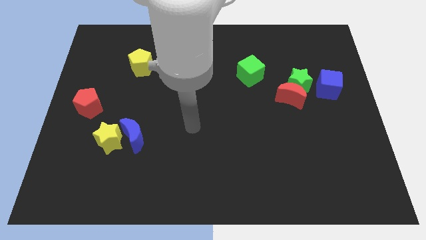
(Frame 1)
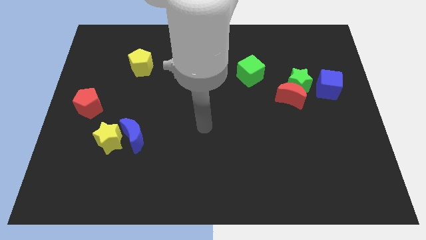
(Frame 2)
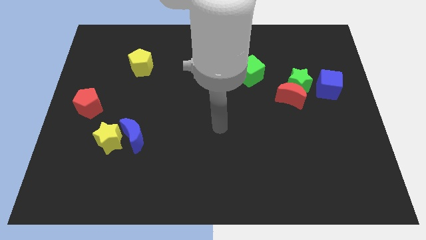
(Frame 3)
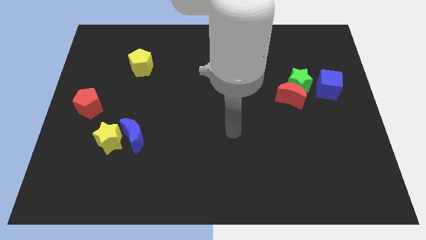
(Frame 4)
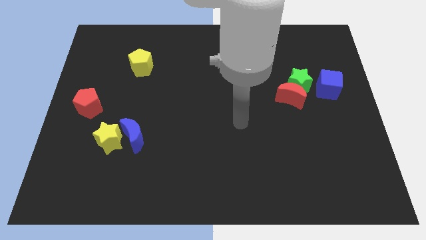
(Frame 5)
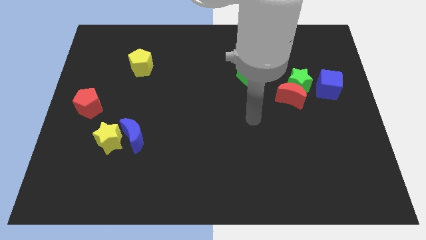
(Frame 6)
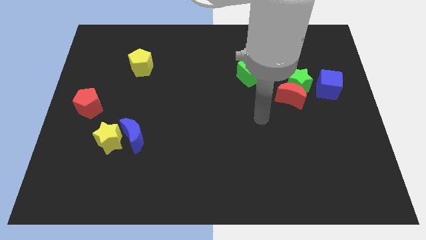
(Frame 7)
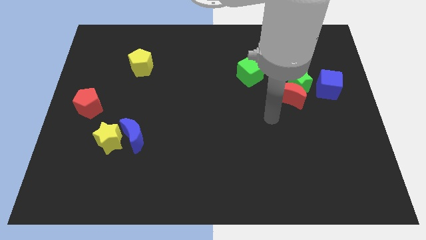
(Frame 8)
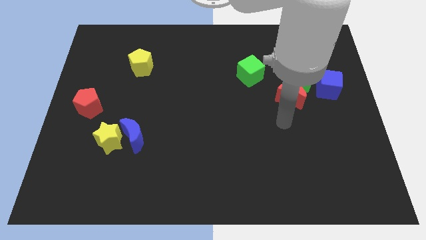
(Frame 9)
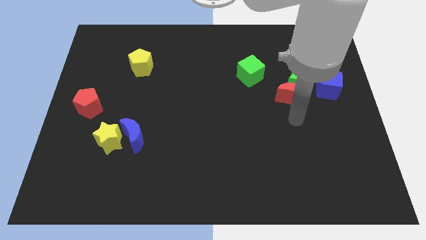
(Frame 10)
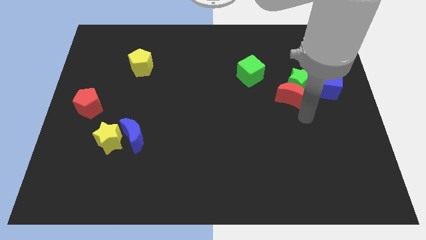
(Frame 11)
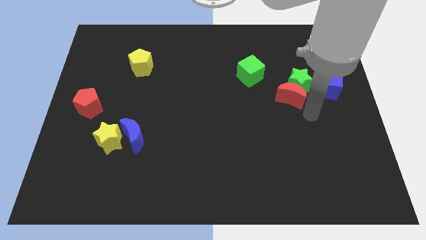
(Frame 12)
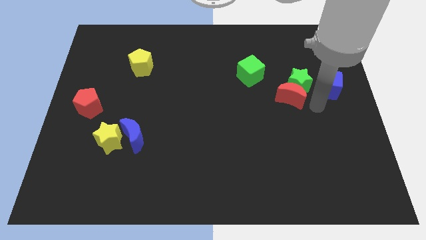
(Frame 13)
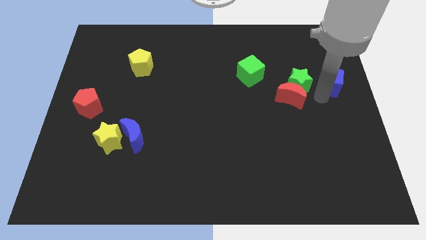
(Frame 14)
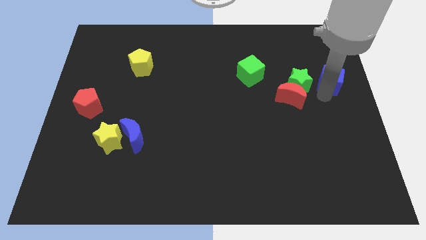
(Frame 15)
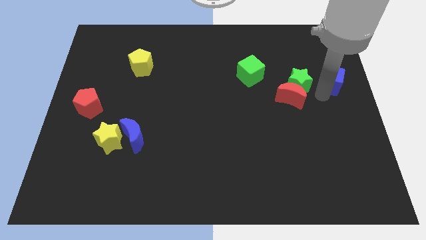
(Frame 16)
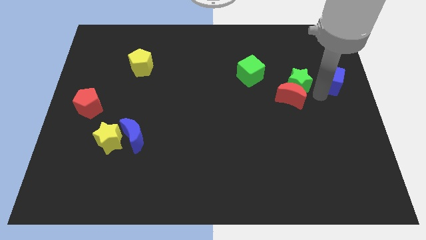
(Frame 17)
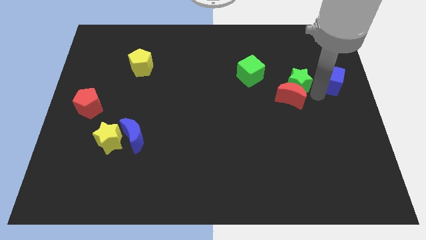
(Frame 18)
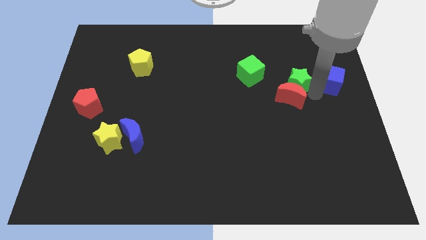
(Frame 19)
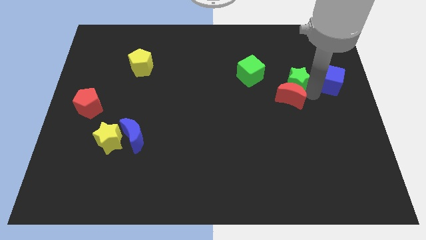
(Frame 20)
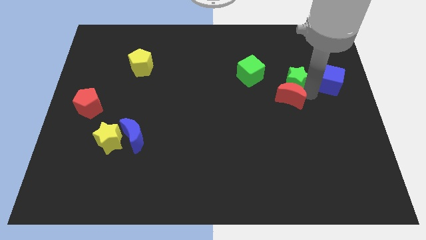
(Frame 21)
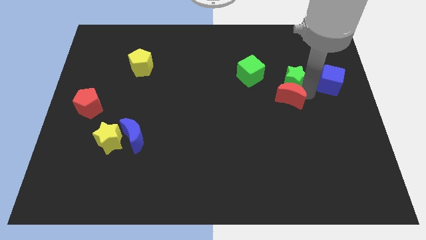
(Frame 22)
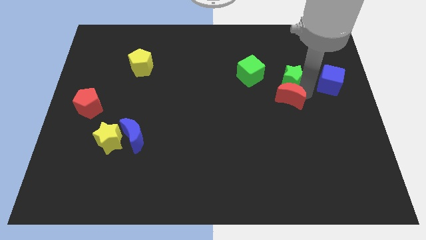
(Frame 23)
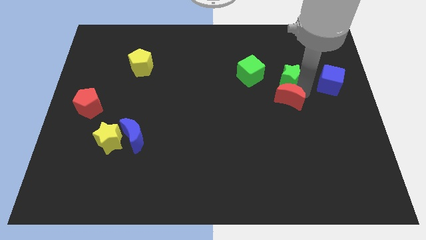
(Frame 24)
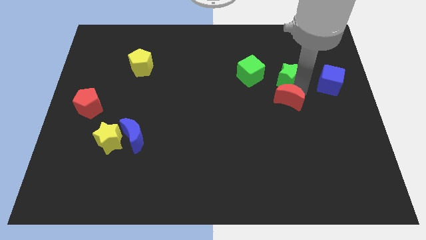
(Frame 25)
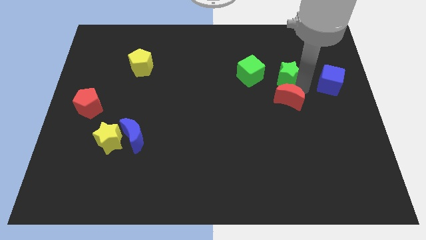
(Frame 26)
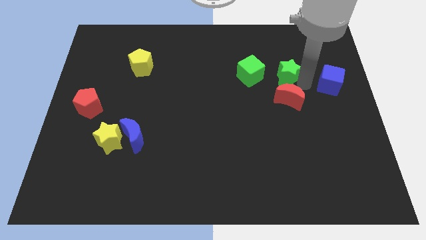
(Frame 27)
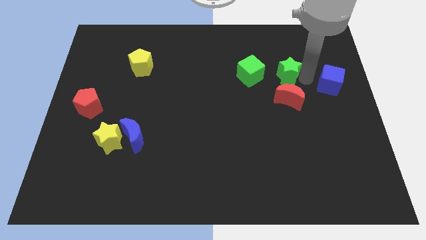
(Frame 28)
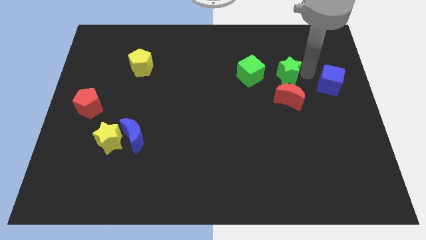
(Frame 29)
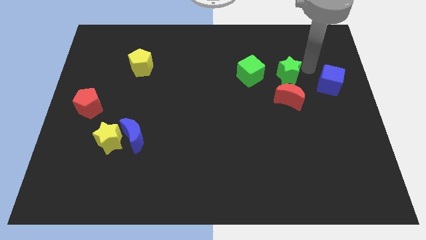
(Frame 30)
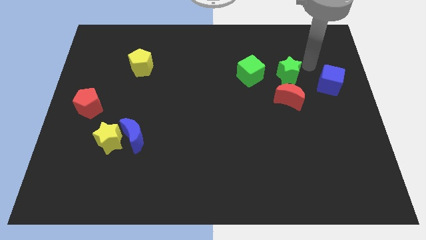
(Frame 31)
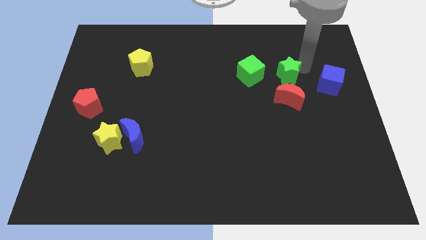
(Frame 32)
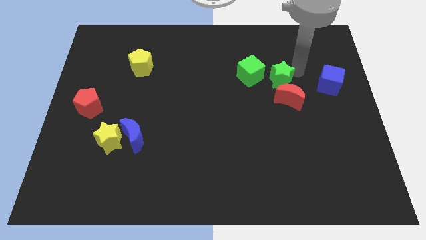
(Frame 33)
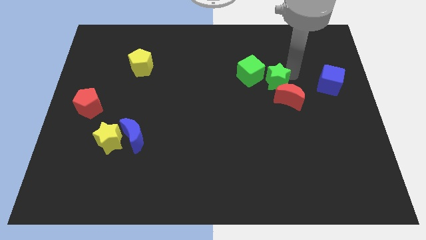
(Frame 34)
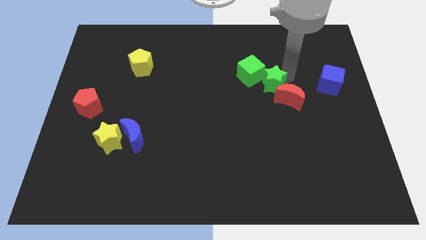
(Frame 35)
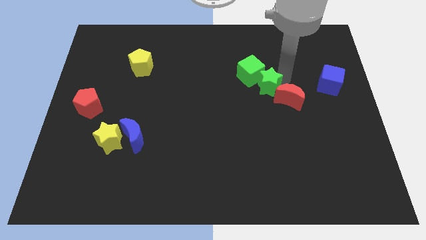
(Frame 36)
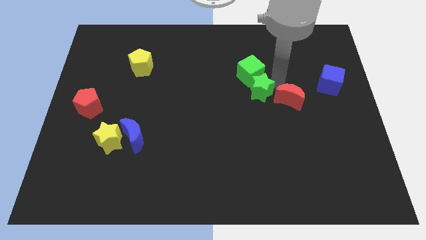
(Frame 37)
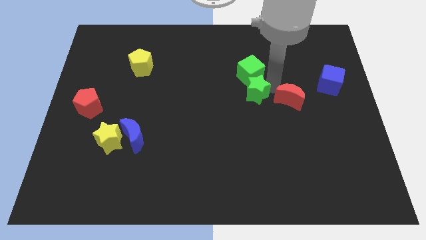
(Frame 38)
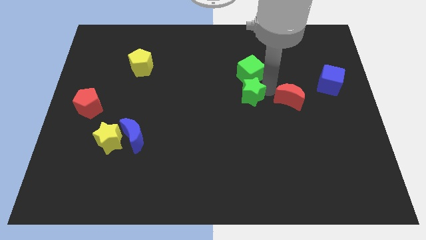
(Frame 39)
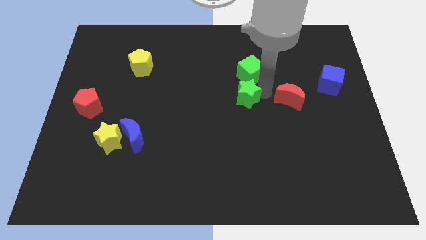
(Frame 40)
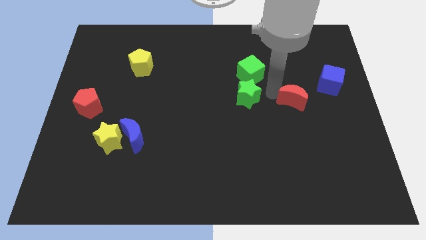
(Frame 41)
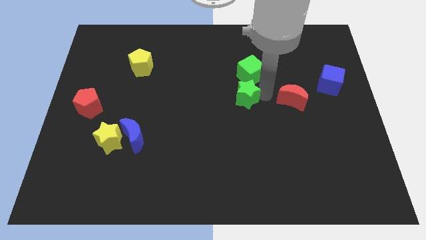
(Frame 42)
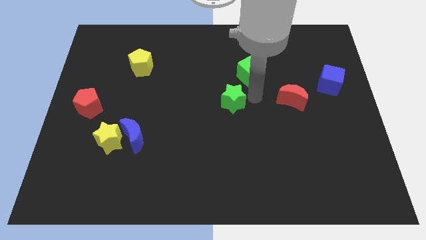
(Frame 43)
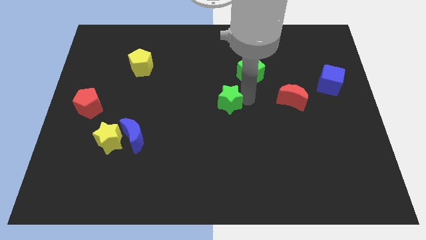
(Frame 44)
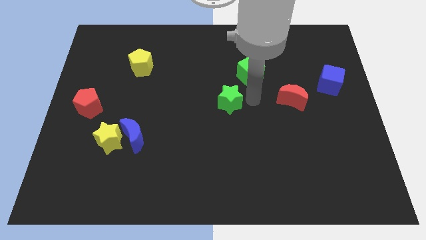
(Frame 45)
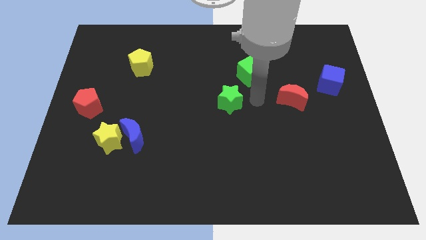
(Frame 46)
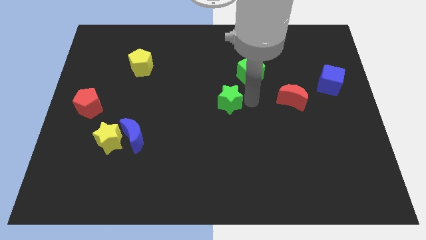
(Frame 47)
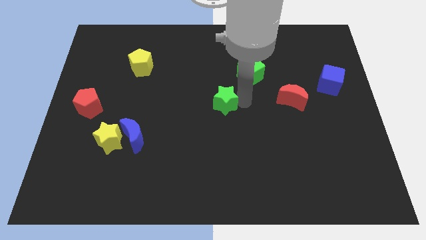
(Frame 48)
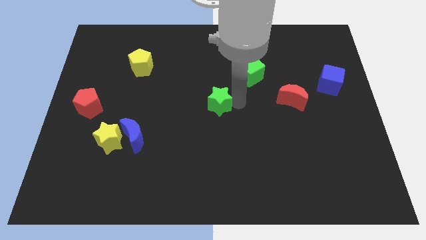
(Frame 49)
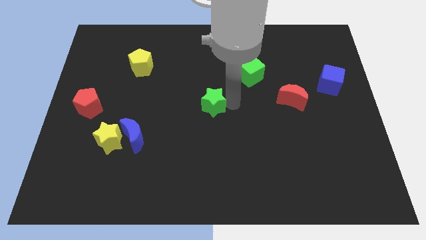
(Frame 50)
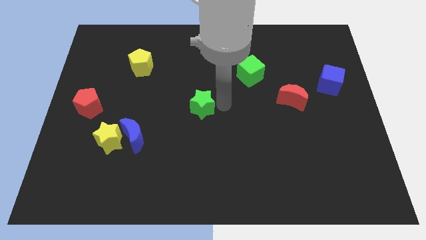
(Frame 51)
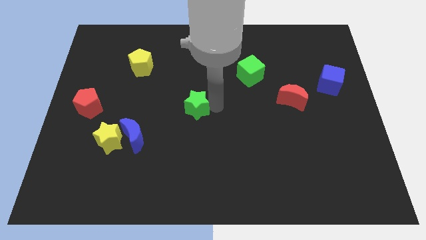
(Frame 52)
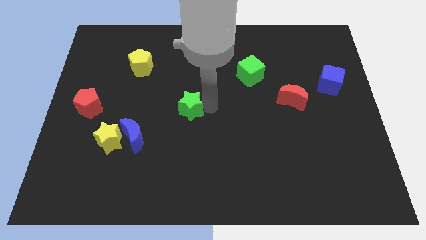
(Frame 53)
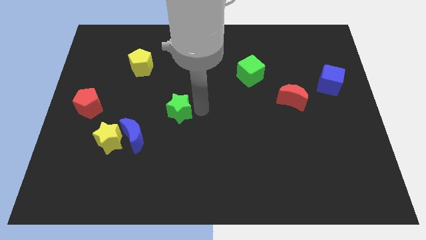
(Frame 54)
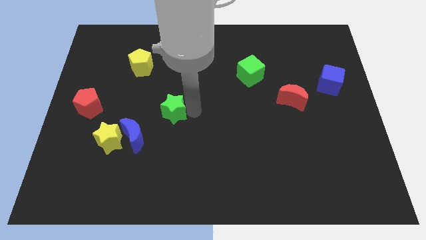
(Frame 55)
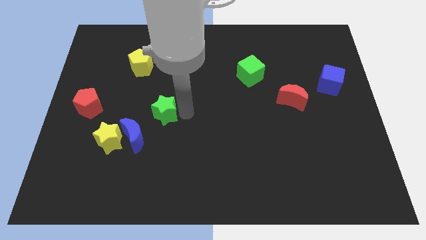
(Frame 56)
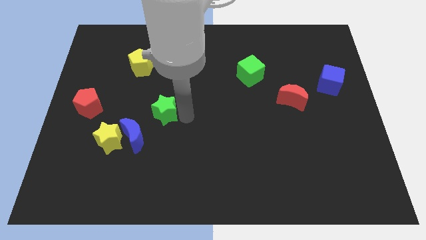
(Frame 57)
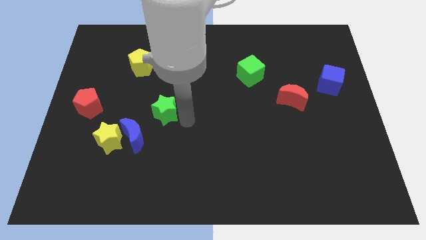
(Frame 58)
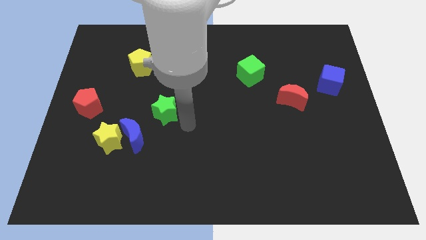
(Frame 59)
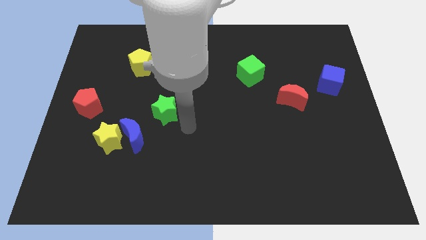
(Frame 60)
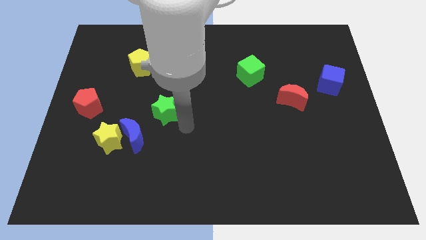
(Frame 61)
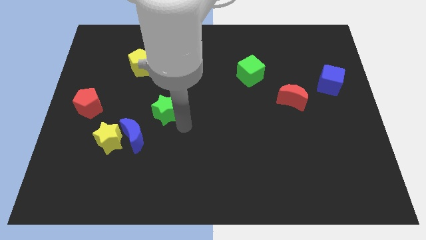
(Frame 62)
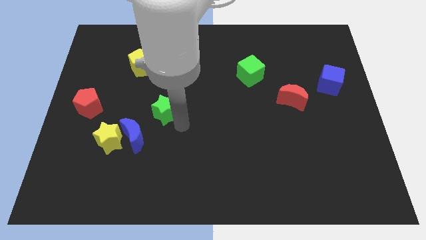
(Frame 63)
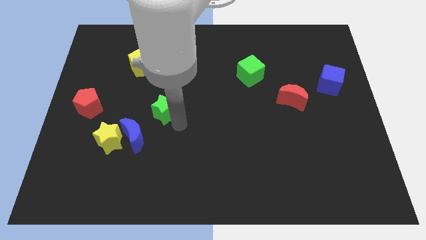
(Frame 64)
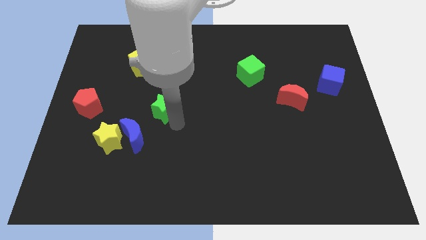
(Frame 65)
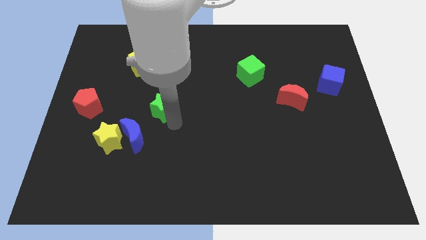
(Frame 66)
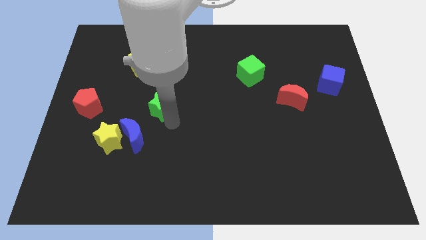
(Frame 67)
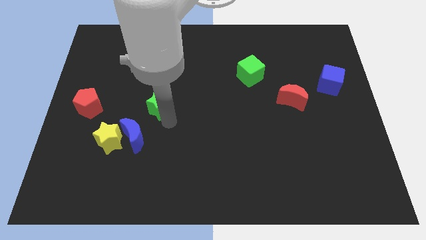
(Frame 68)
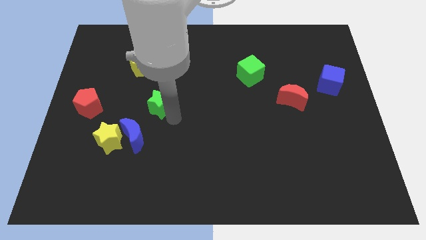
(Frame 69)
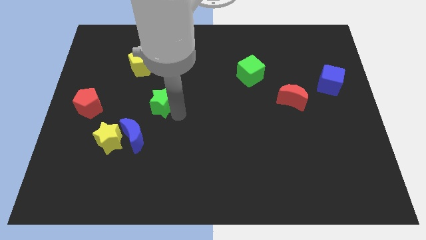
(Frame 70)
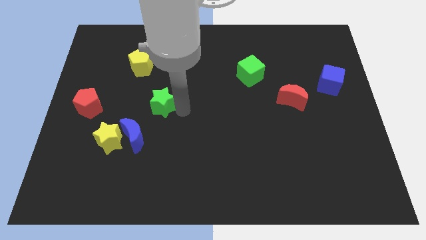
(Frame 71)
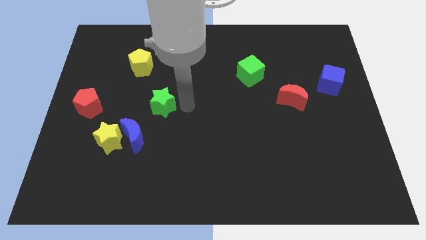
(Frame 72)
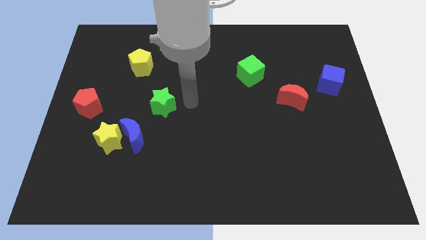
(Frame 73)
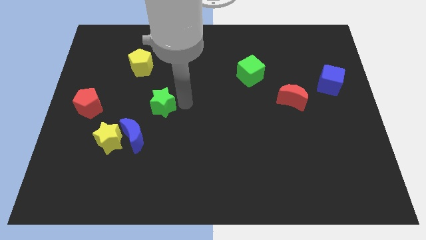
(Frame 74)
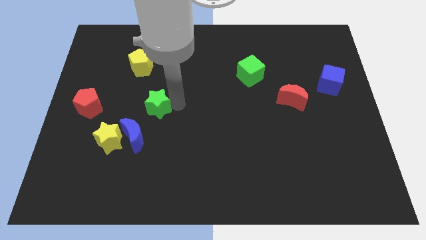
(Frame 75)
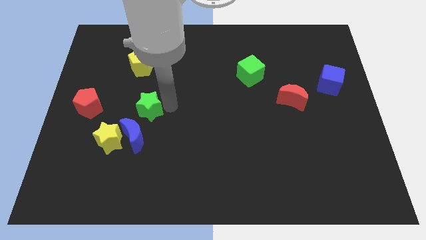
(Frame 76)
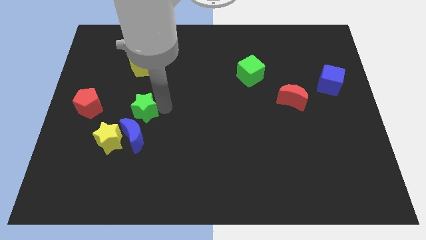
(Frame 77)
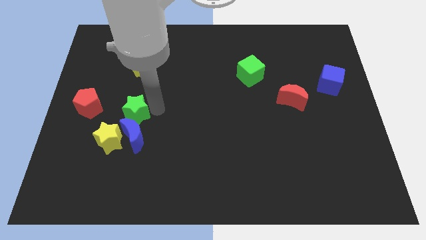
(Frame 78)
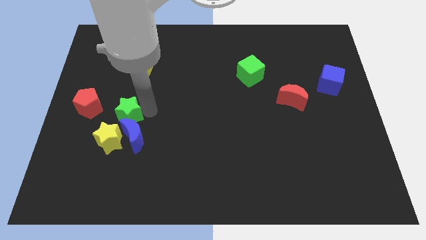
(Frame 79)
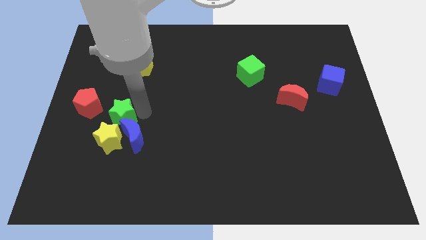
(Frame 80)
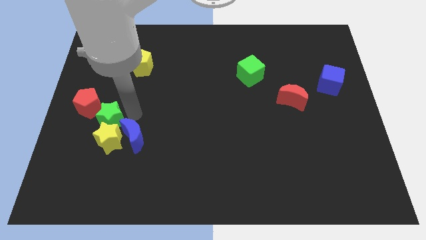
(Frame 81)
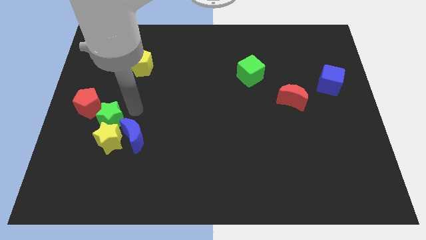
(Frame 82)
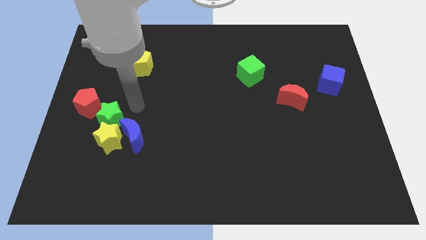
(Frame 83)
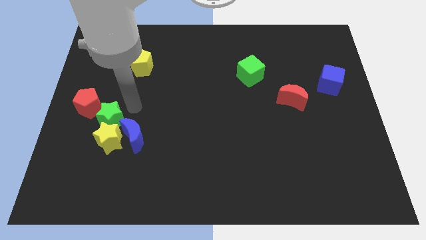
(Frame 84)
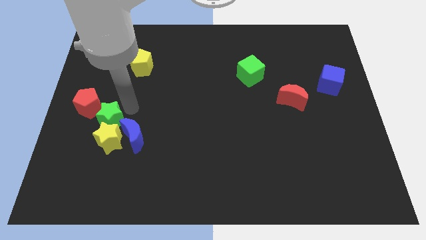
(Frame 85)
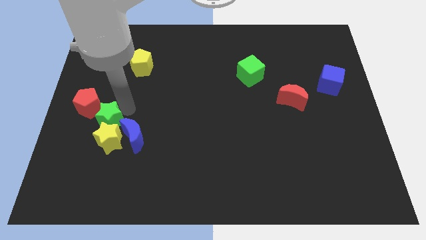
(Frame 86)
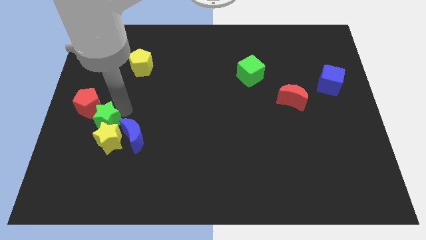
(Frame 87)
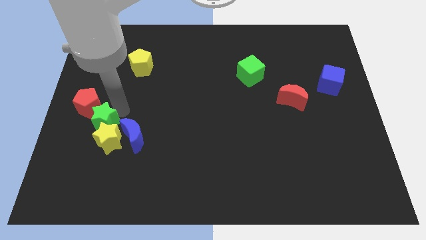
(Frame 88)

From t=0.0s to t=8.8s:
slide the green star below the red pentagon
